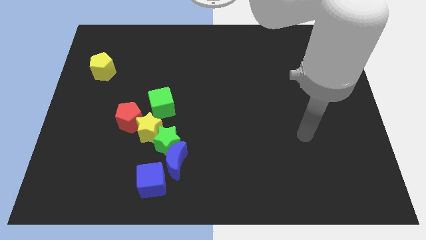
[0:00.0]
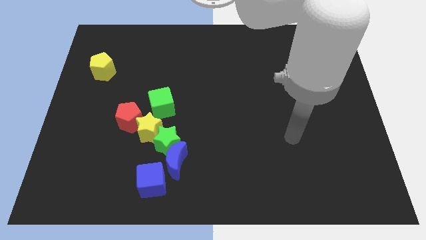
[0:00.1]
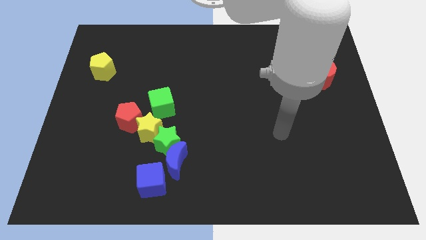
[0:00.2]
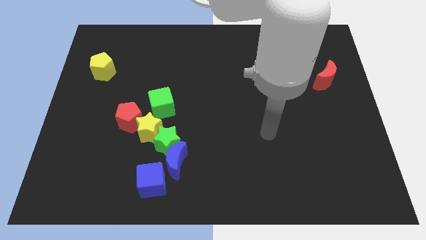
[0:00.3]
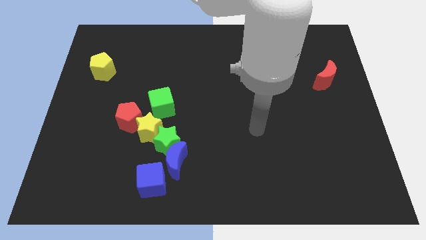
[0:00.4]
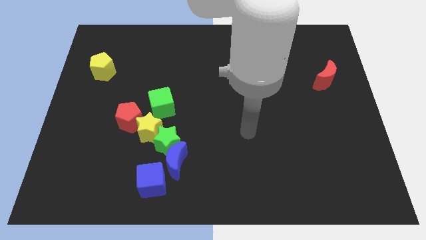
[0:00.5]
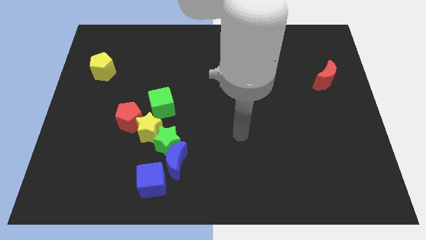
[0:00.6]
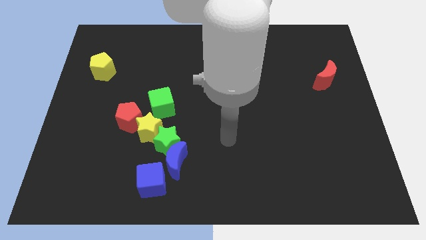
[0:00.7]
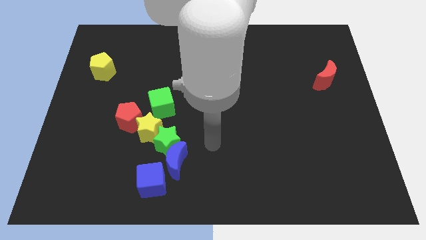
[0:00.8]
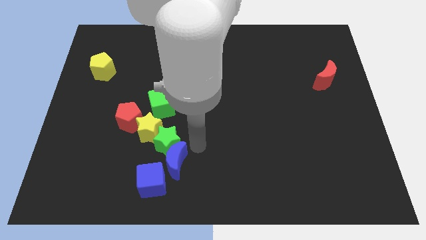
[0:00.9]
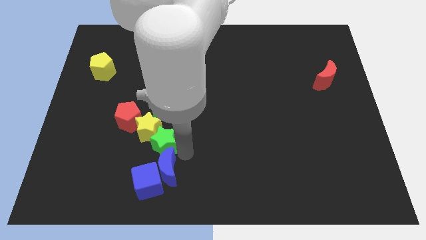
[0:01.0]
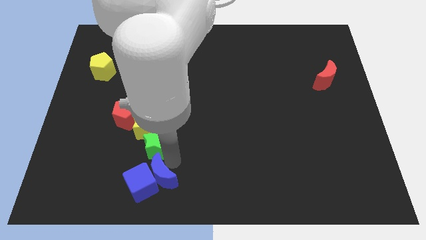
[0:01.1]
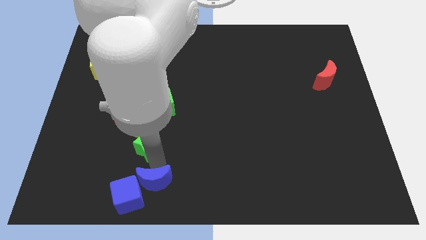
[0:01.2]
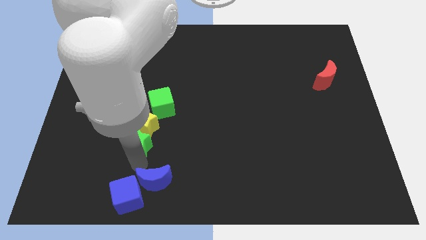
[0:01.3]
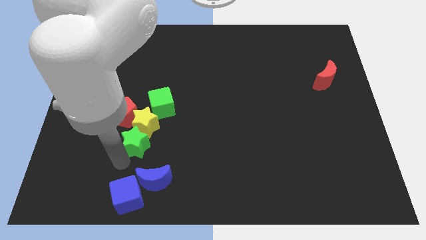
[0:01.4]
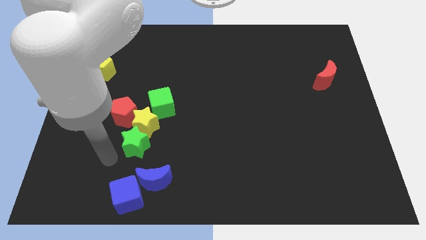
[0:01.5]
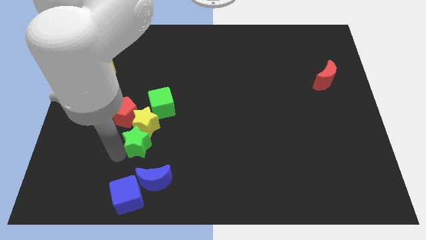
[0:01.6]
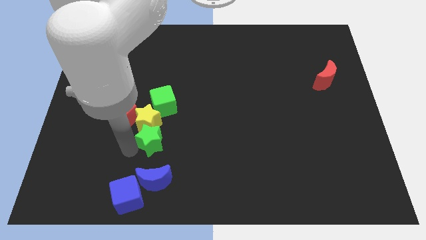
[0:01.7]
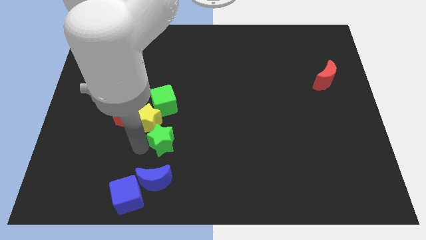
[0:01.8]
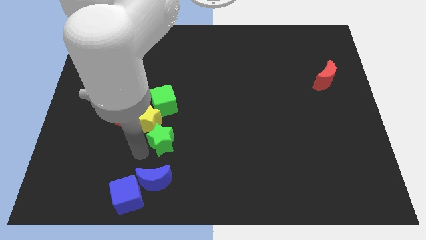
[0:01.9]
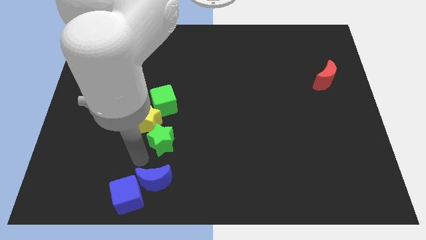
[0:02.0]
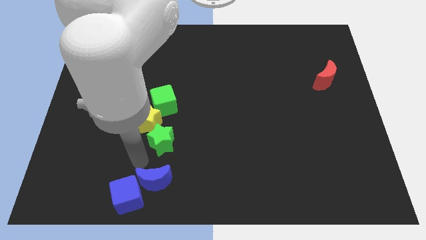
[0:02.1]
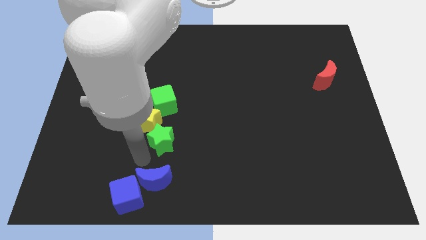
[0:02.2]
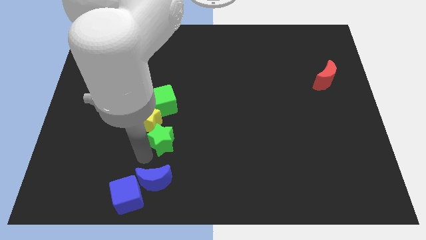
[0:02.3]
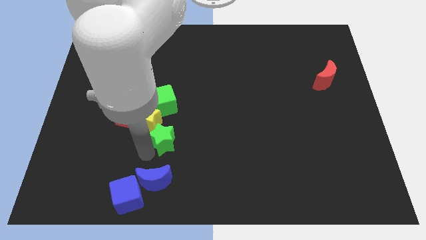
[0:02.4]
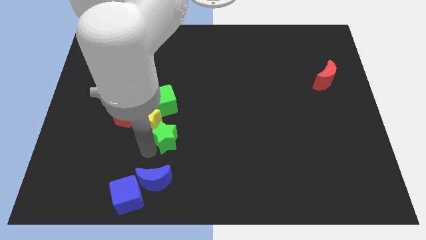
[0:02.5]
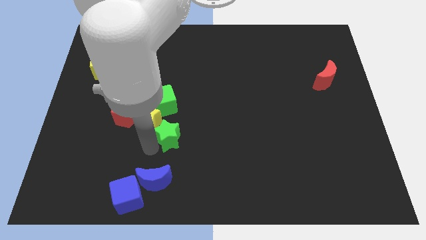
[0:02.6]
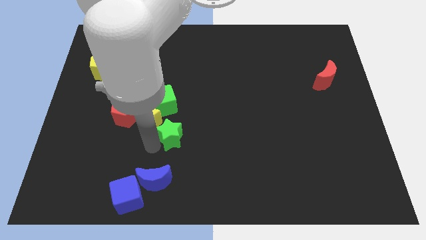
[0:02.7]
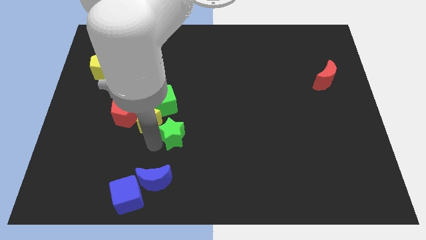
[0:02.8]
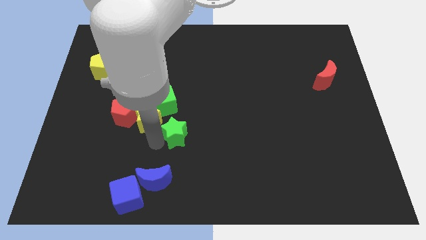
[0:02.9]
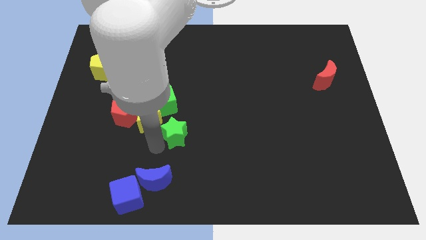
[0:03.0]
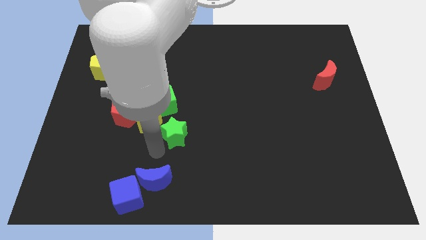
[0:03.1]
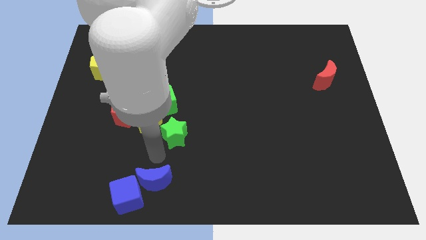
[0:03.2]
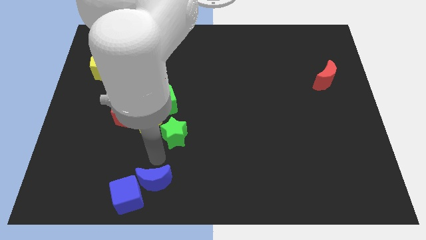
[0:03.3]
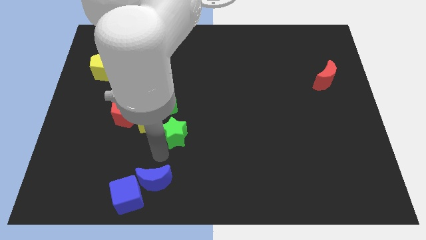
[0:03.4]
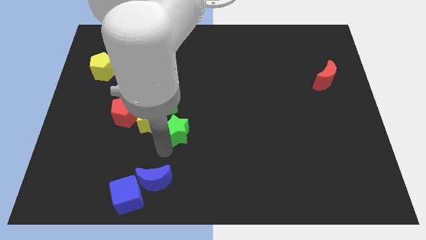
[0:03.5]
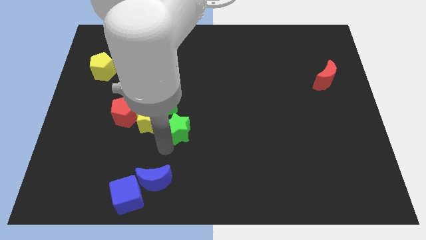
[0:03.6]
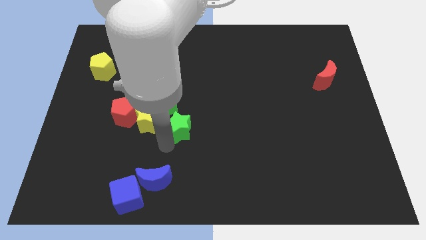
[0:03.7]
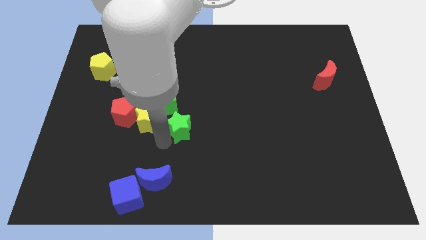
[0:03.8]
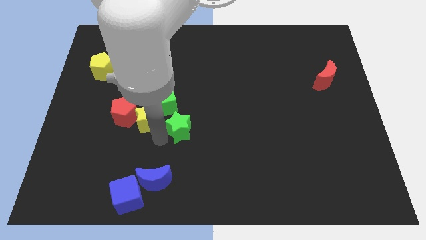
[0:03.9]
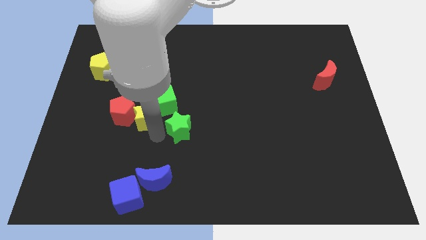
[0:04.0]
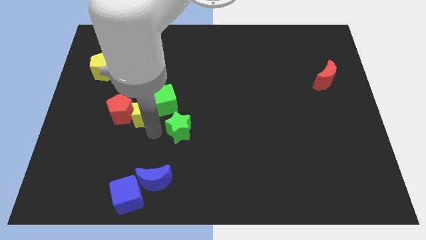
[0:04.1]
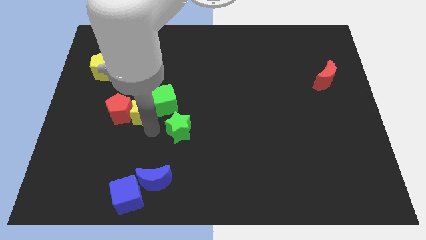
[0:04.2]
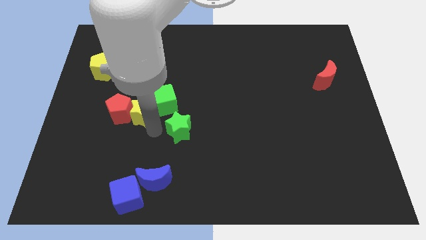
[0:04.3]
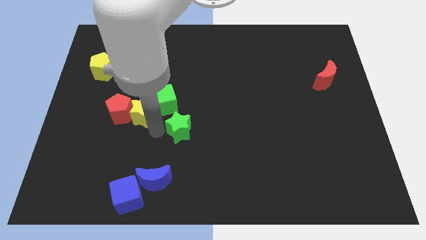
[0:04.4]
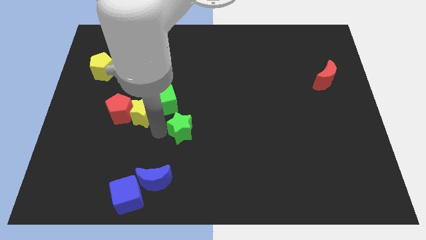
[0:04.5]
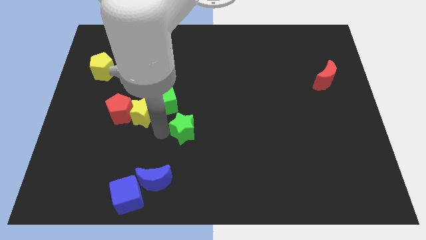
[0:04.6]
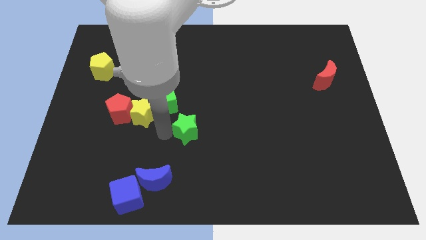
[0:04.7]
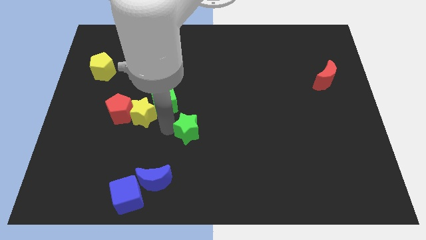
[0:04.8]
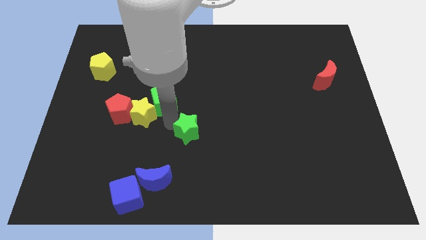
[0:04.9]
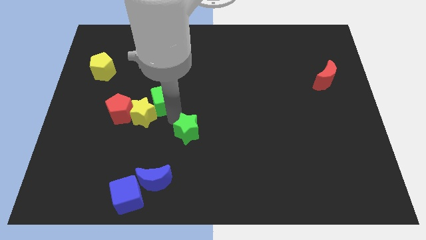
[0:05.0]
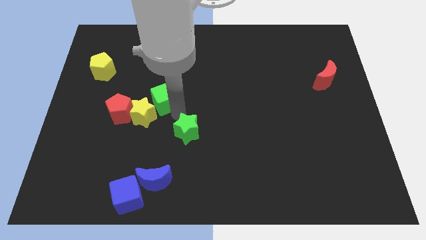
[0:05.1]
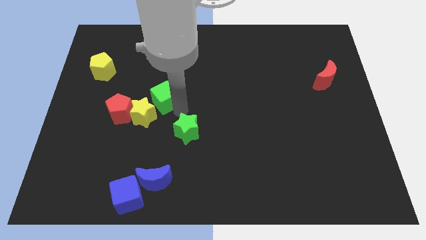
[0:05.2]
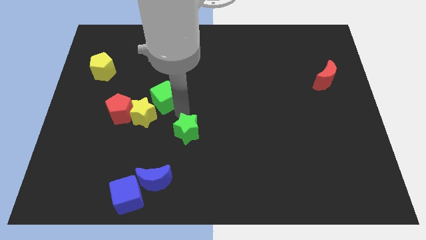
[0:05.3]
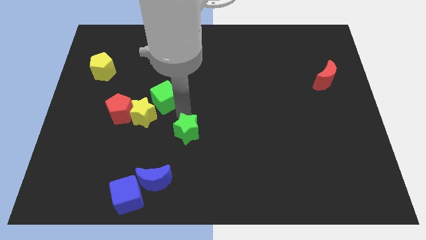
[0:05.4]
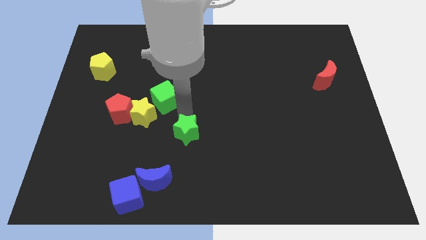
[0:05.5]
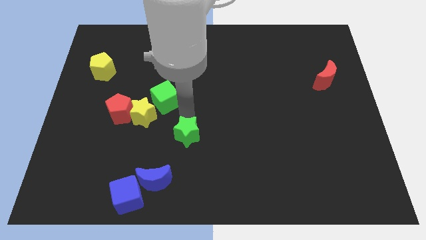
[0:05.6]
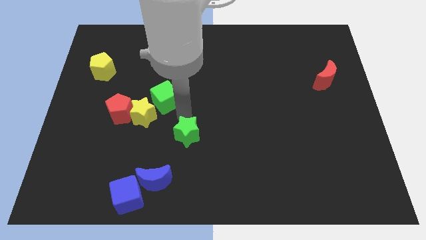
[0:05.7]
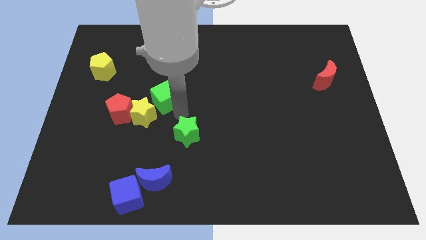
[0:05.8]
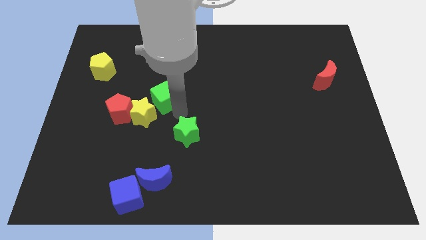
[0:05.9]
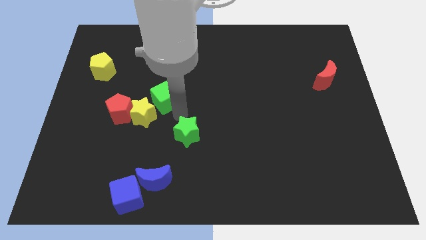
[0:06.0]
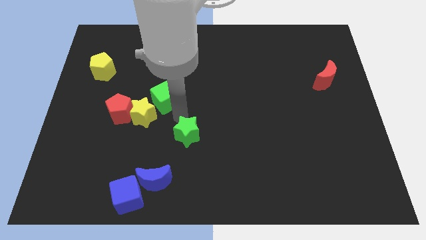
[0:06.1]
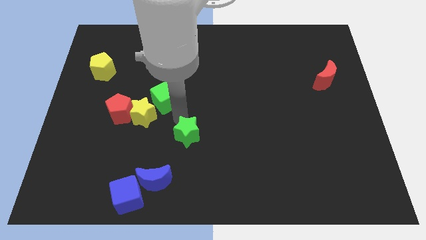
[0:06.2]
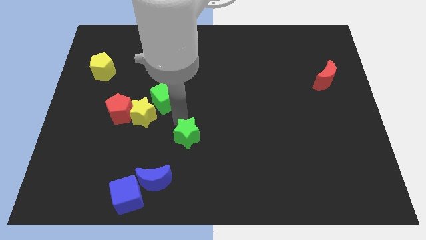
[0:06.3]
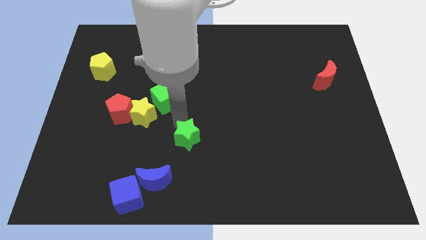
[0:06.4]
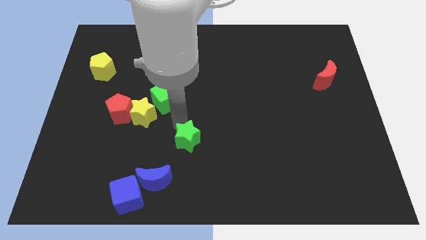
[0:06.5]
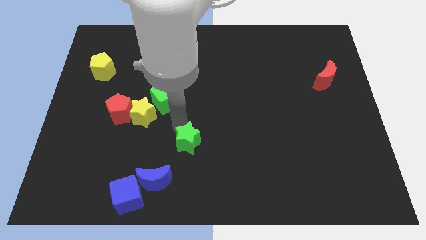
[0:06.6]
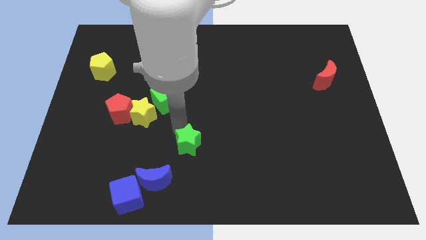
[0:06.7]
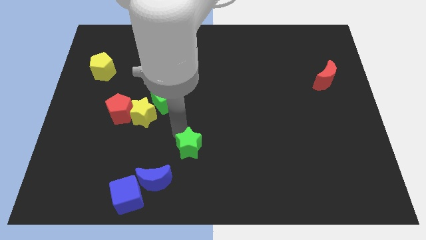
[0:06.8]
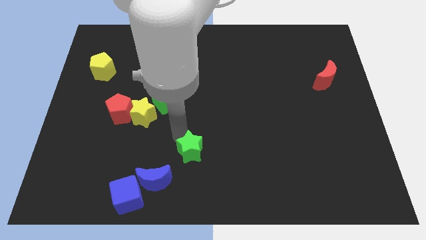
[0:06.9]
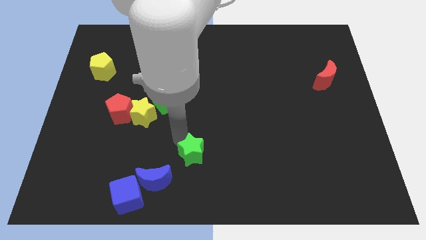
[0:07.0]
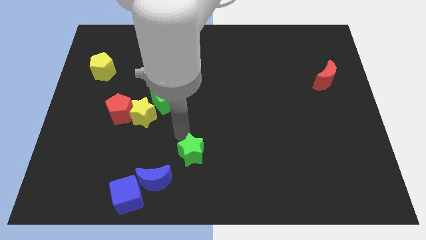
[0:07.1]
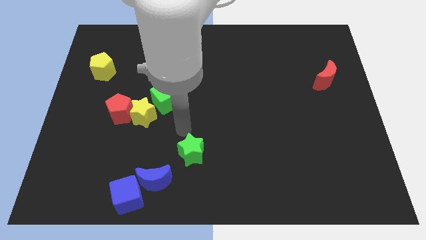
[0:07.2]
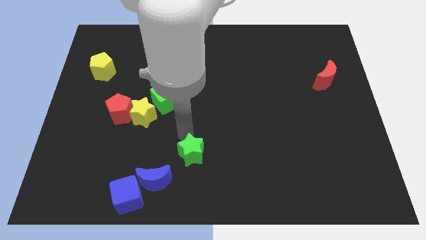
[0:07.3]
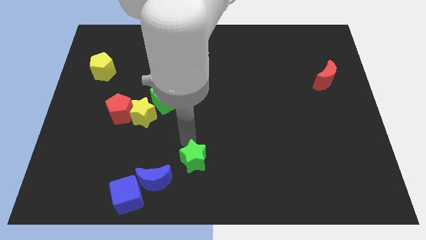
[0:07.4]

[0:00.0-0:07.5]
slide the green star to the bottom side
